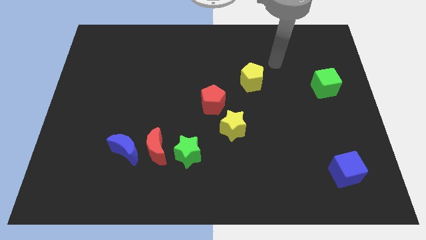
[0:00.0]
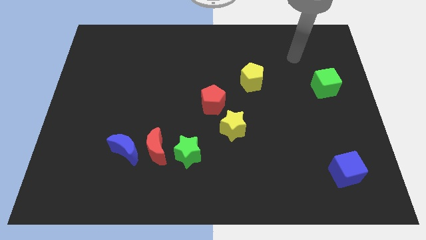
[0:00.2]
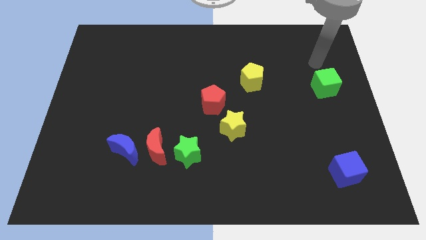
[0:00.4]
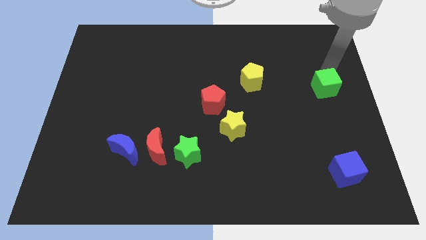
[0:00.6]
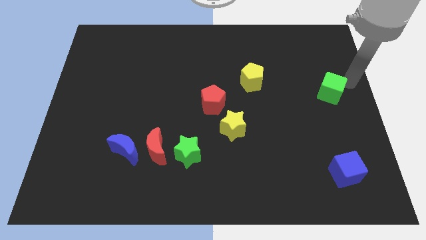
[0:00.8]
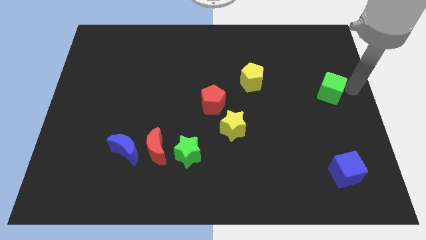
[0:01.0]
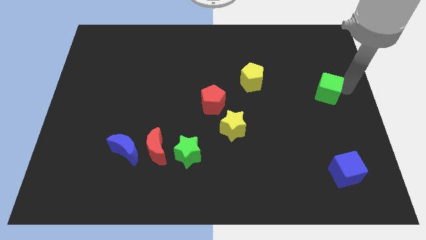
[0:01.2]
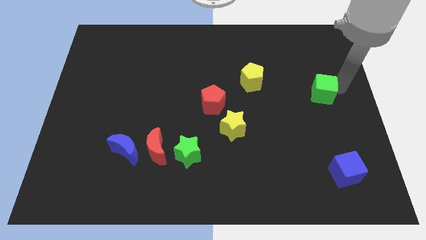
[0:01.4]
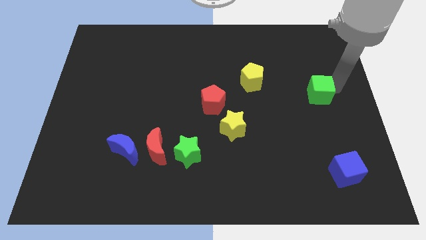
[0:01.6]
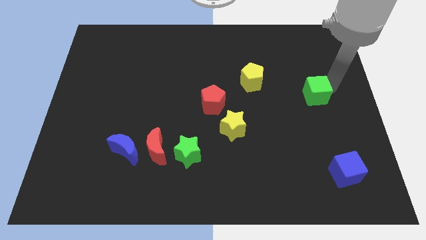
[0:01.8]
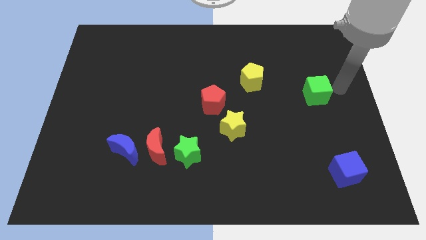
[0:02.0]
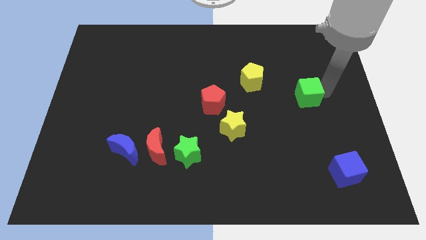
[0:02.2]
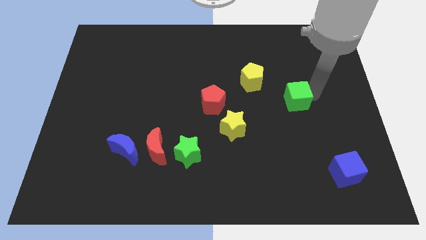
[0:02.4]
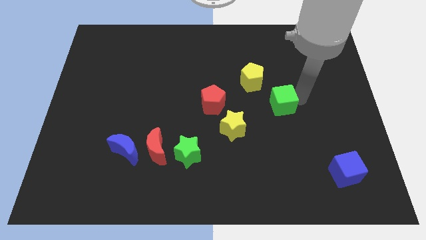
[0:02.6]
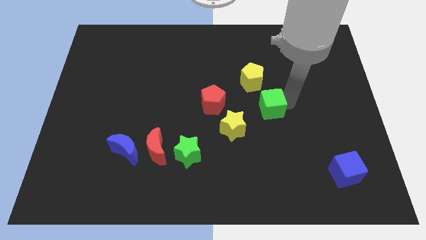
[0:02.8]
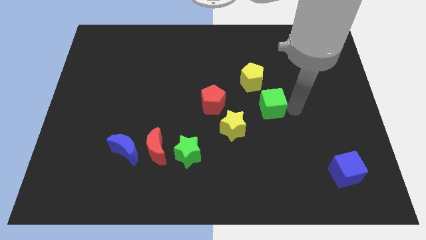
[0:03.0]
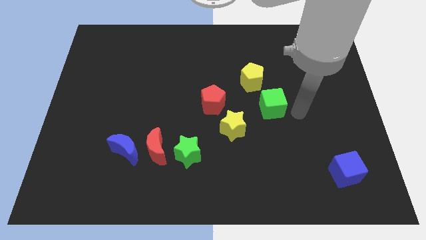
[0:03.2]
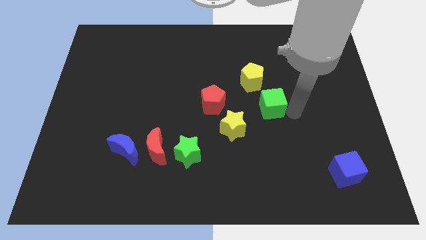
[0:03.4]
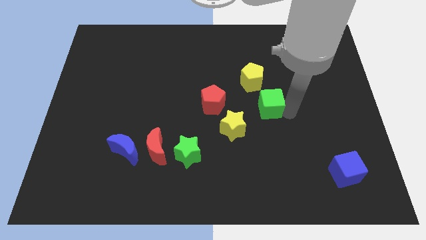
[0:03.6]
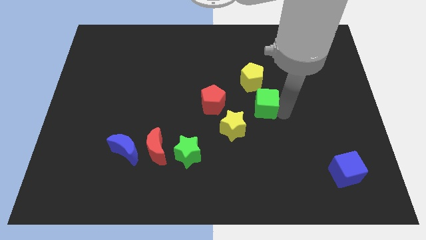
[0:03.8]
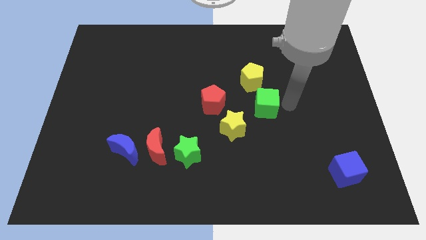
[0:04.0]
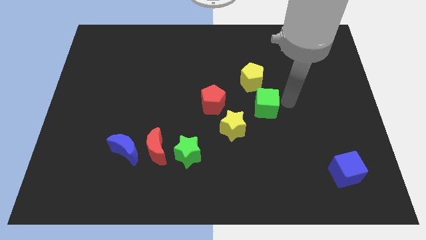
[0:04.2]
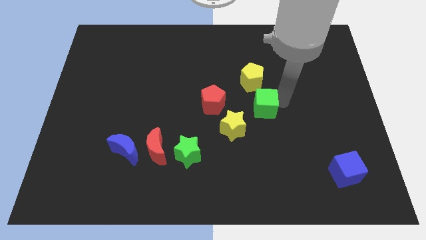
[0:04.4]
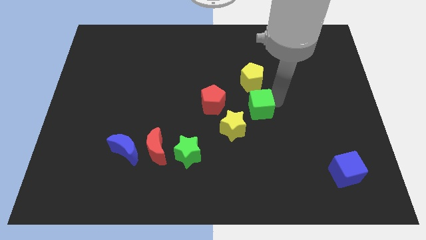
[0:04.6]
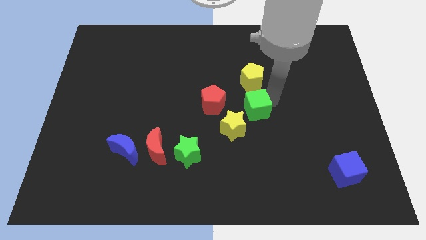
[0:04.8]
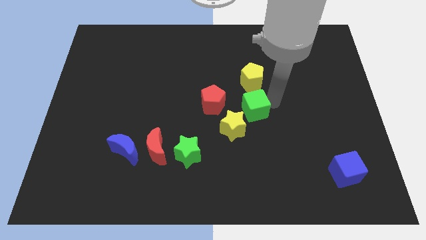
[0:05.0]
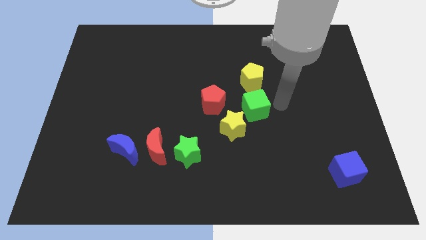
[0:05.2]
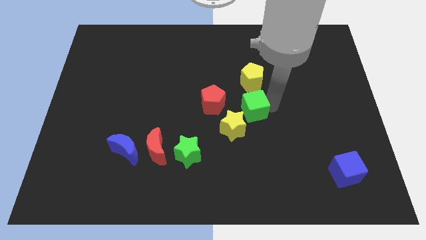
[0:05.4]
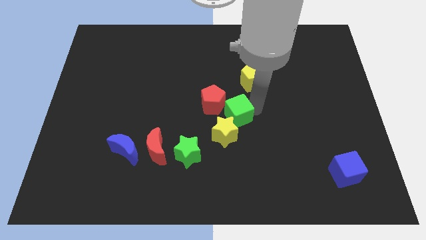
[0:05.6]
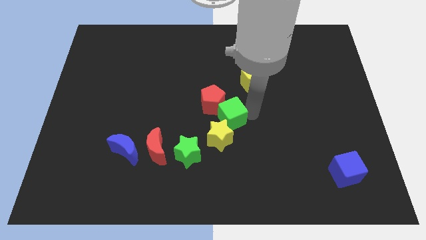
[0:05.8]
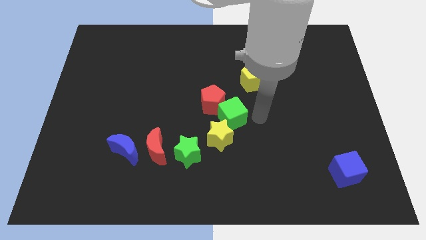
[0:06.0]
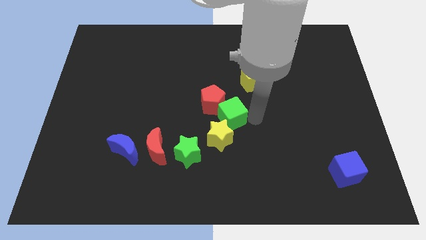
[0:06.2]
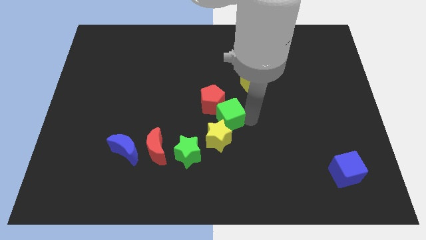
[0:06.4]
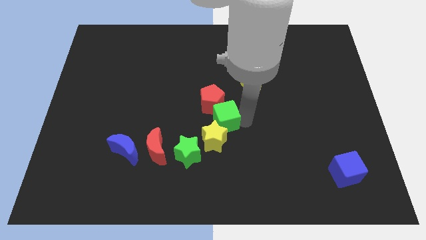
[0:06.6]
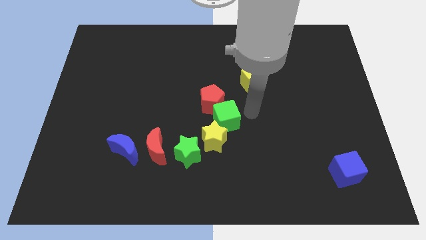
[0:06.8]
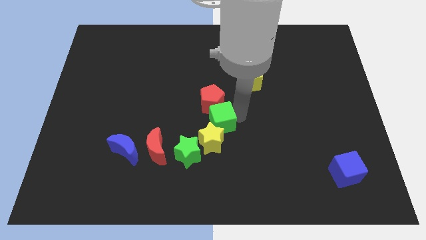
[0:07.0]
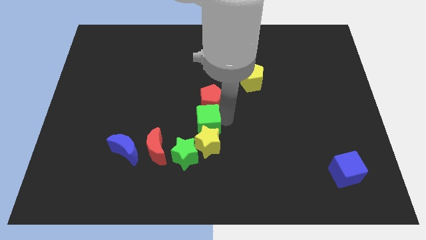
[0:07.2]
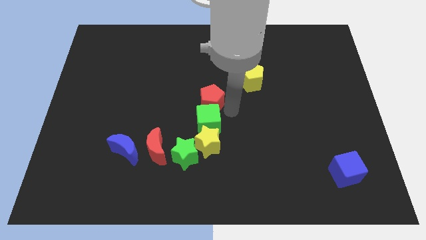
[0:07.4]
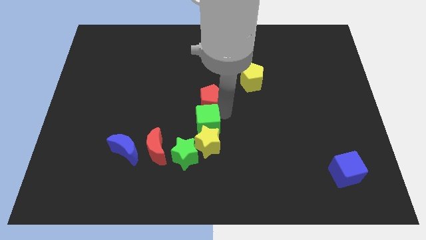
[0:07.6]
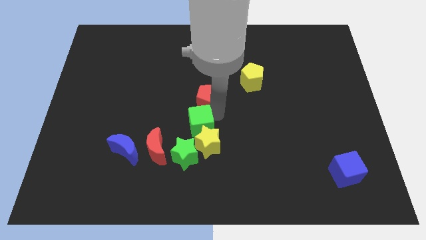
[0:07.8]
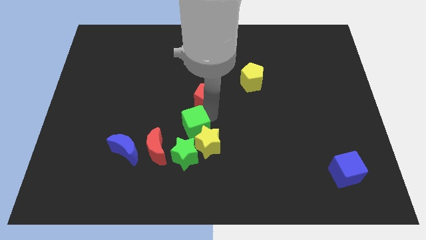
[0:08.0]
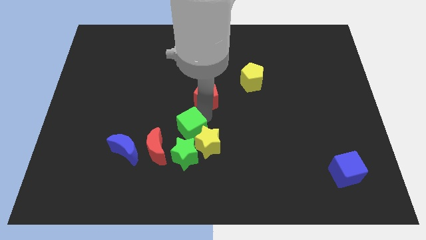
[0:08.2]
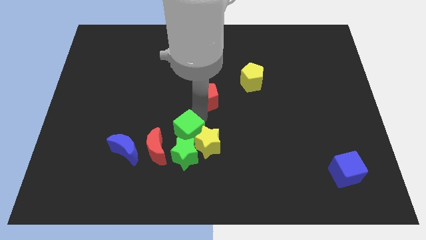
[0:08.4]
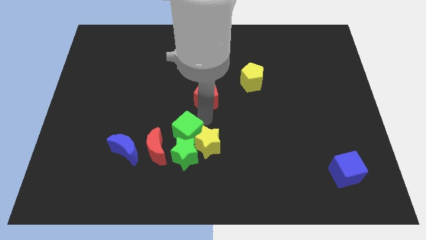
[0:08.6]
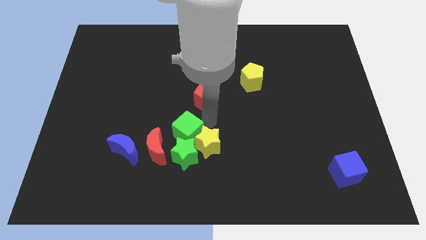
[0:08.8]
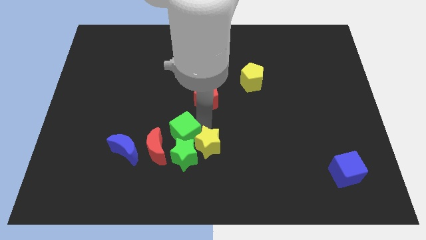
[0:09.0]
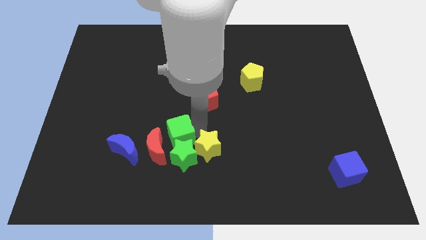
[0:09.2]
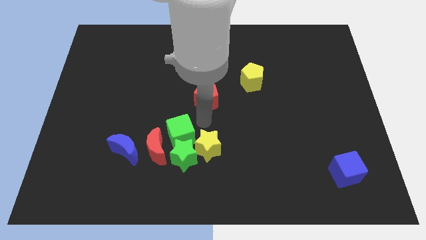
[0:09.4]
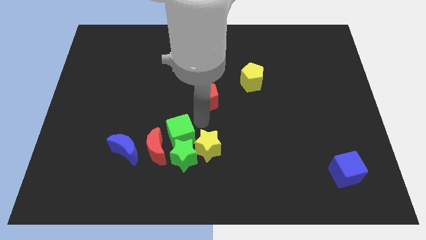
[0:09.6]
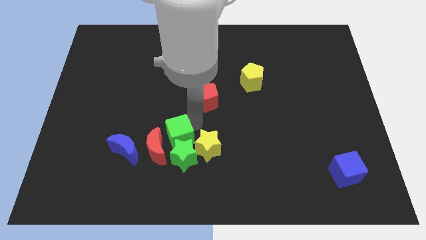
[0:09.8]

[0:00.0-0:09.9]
push the green cube to the red moon

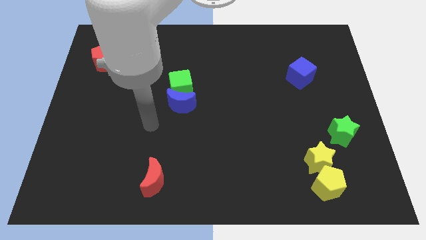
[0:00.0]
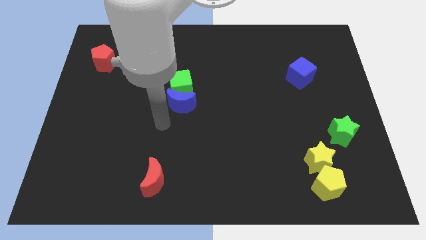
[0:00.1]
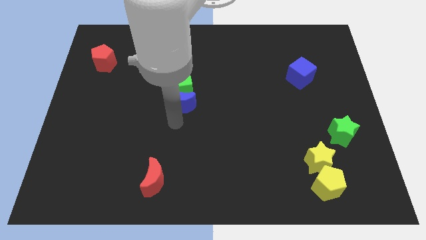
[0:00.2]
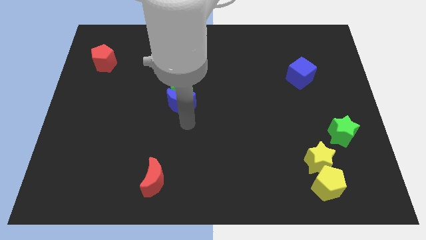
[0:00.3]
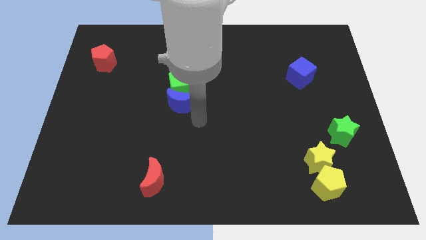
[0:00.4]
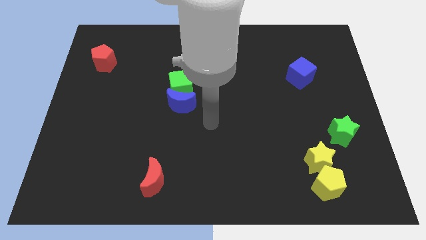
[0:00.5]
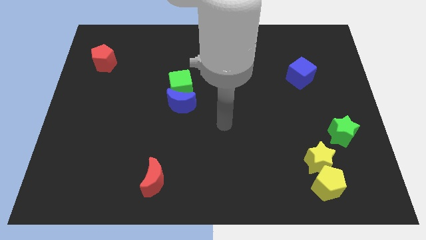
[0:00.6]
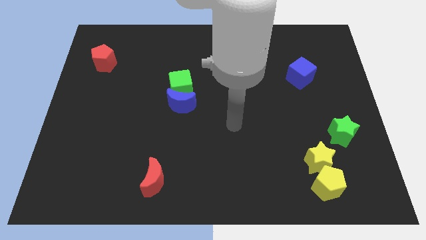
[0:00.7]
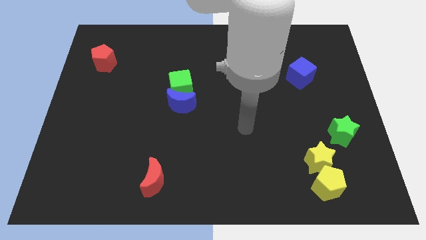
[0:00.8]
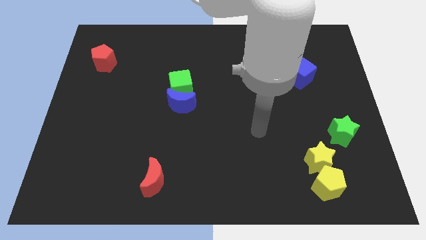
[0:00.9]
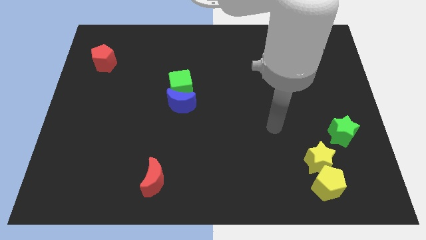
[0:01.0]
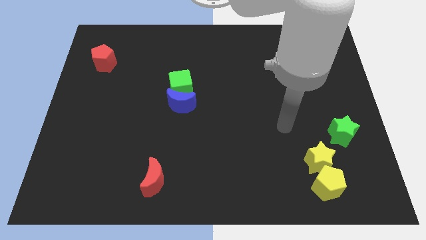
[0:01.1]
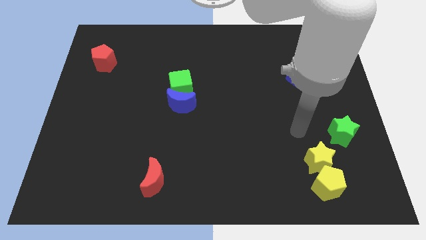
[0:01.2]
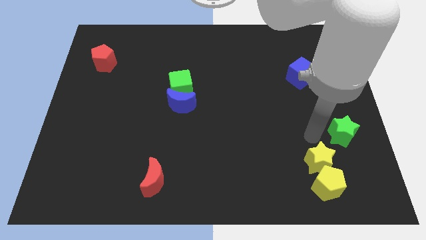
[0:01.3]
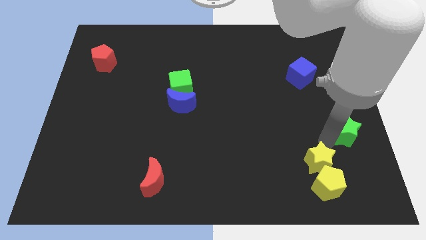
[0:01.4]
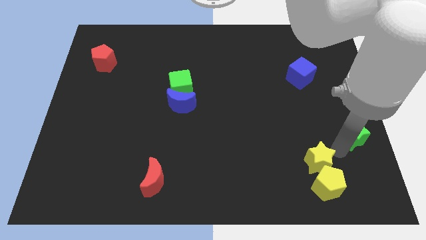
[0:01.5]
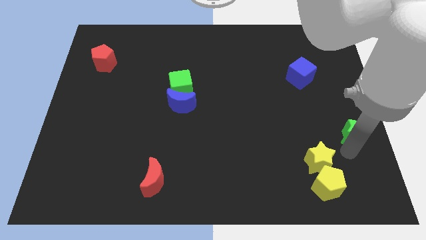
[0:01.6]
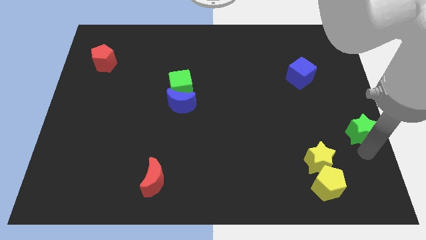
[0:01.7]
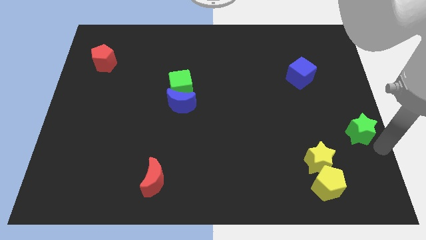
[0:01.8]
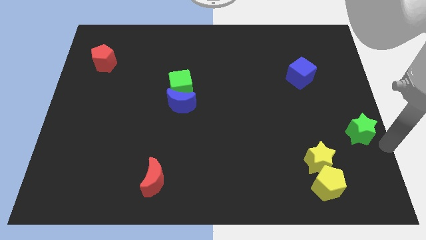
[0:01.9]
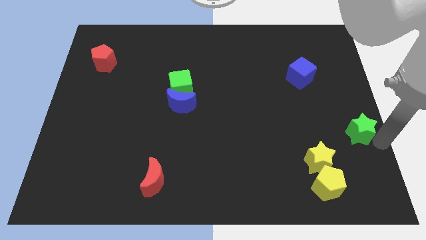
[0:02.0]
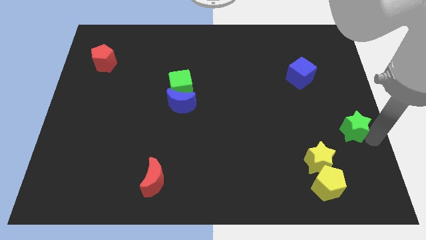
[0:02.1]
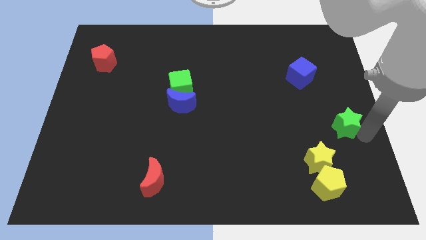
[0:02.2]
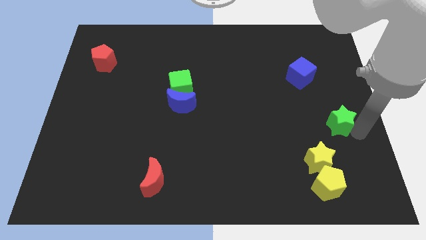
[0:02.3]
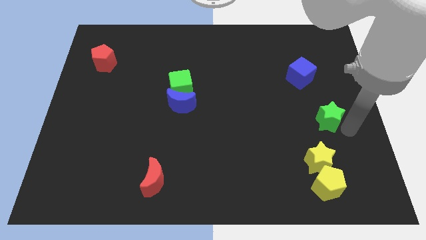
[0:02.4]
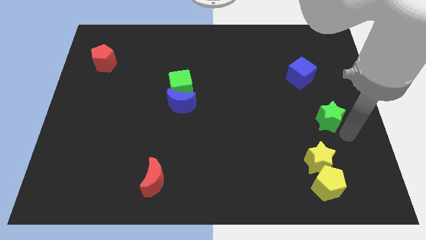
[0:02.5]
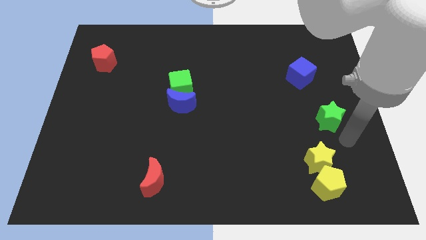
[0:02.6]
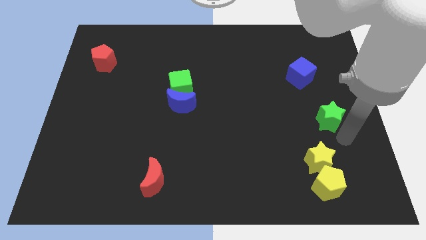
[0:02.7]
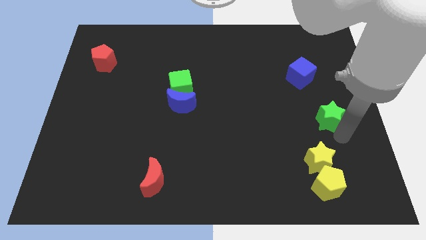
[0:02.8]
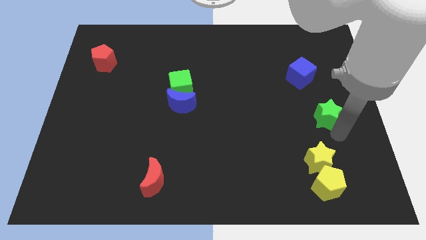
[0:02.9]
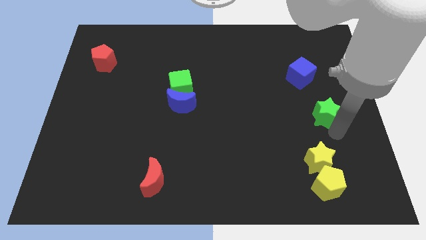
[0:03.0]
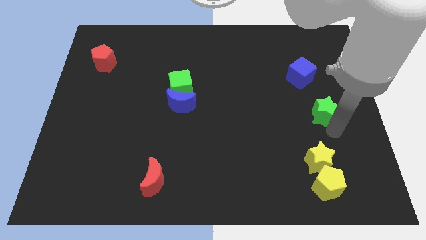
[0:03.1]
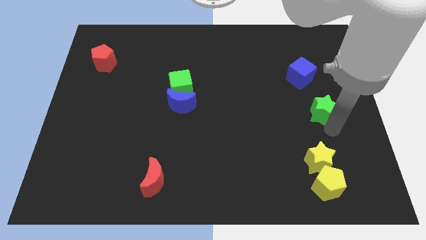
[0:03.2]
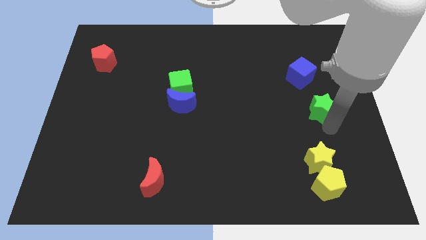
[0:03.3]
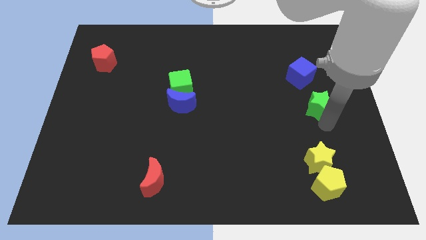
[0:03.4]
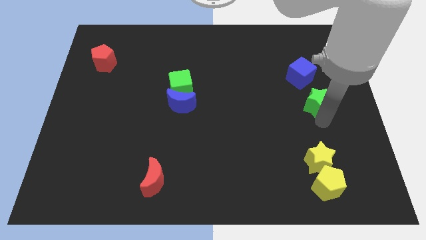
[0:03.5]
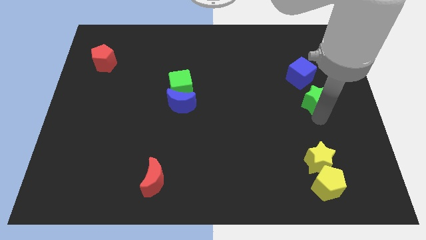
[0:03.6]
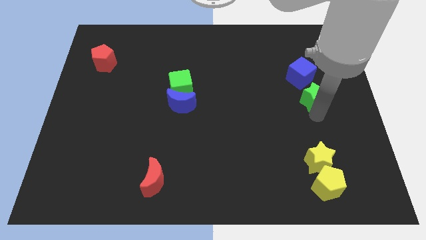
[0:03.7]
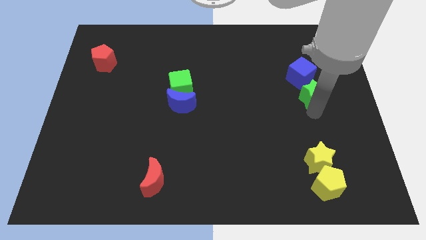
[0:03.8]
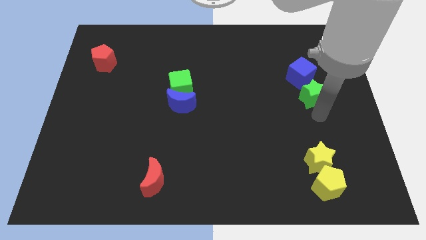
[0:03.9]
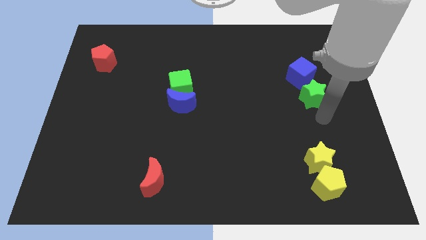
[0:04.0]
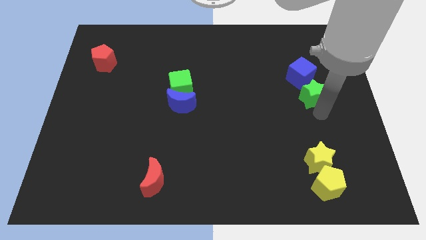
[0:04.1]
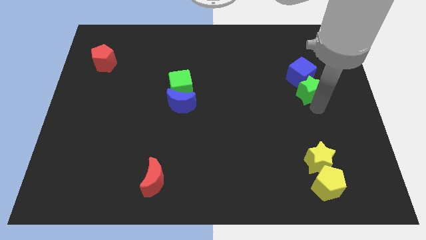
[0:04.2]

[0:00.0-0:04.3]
put the green star to the blue cube
